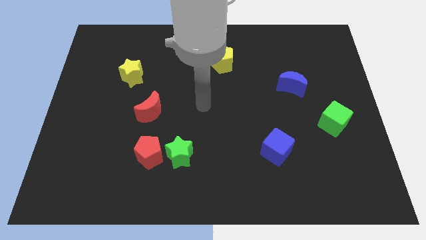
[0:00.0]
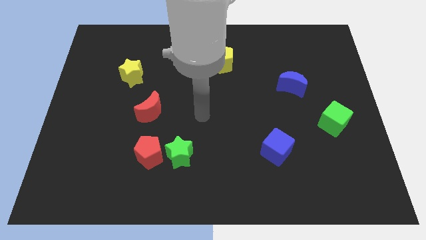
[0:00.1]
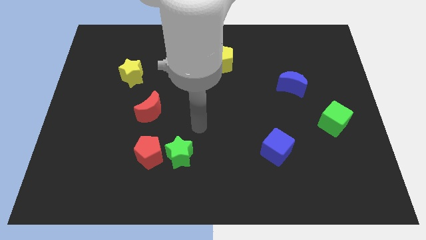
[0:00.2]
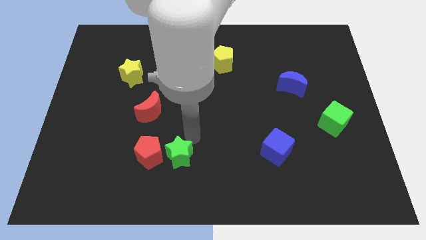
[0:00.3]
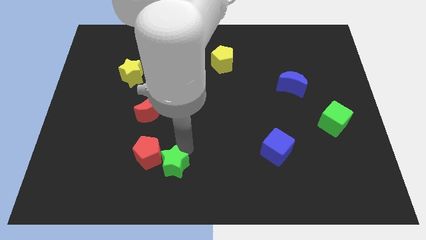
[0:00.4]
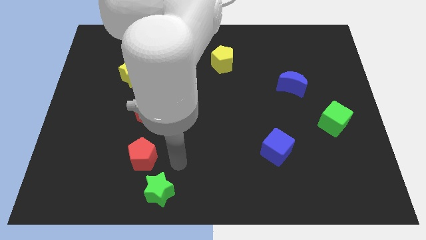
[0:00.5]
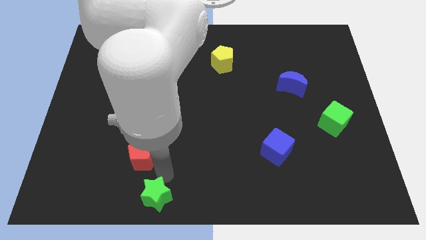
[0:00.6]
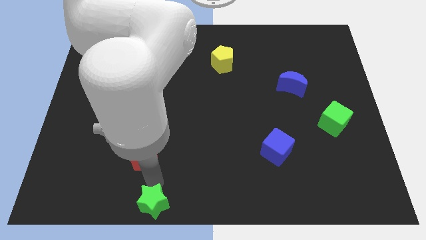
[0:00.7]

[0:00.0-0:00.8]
pull the red pentagon apart from the green star

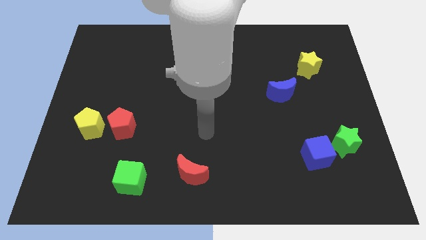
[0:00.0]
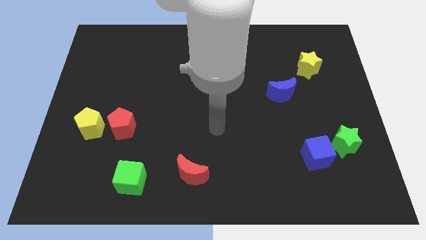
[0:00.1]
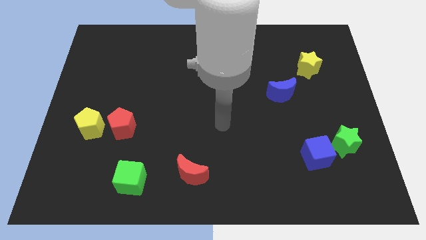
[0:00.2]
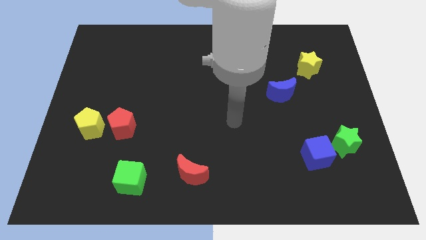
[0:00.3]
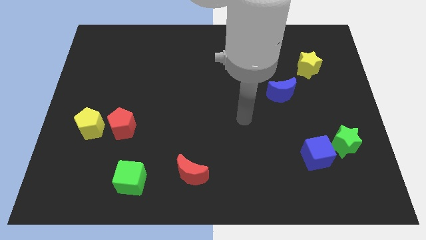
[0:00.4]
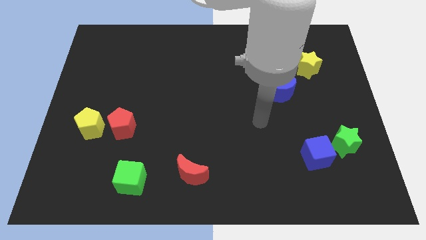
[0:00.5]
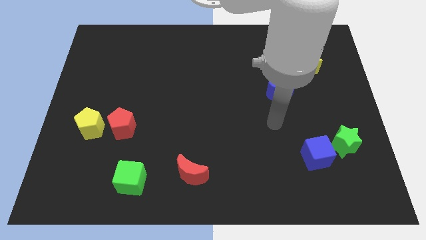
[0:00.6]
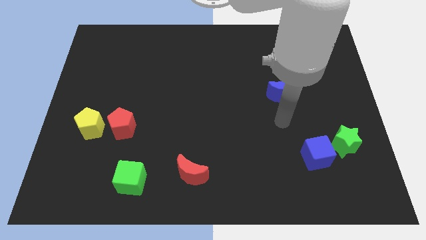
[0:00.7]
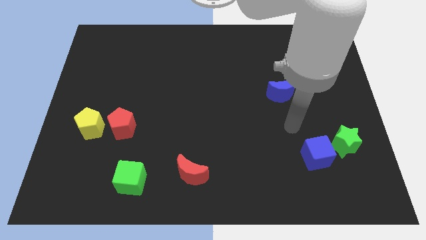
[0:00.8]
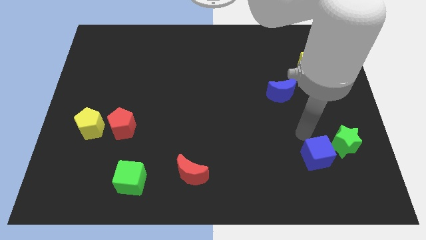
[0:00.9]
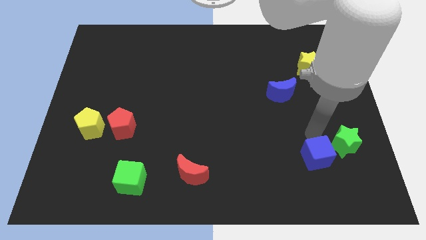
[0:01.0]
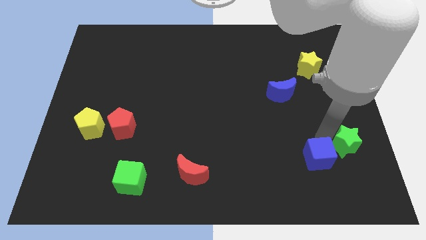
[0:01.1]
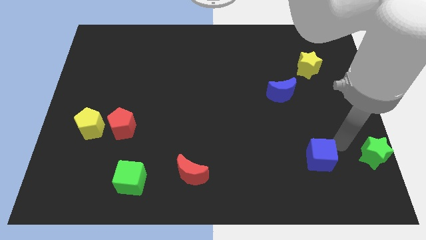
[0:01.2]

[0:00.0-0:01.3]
move the blue cube away from the green star

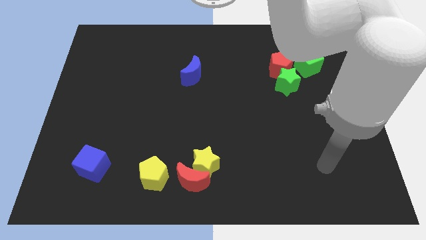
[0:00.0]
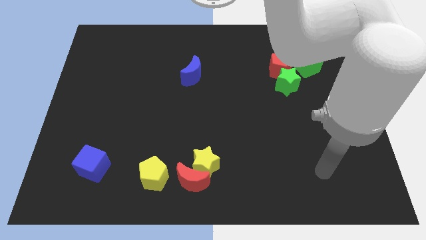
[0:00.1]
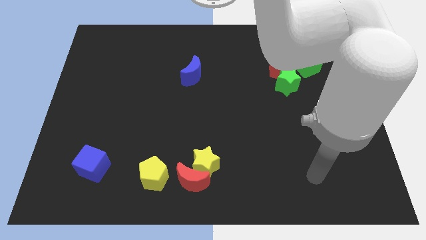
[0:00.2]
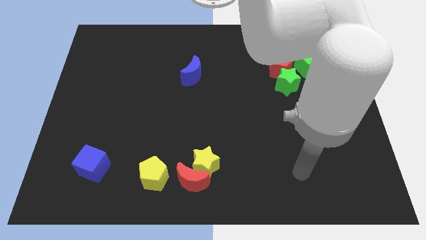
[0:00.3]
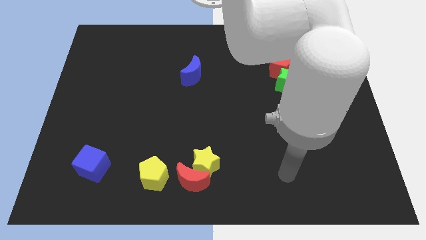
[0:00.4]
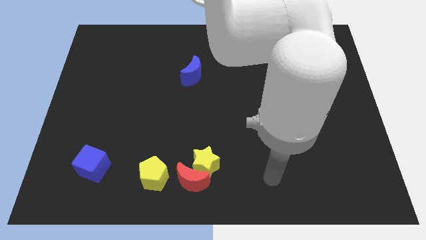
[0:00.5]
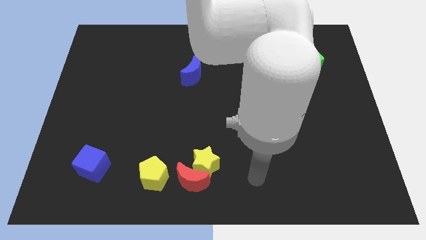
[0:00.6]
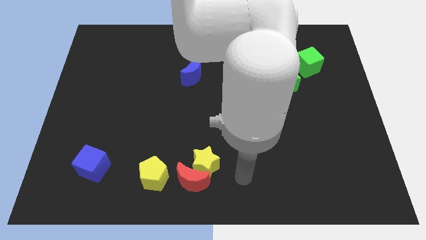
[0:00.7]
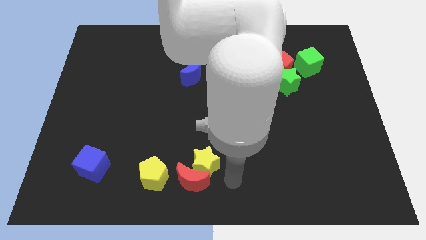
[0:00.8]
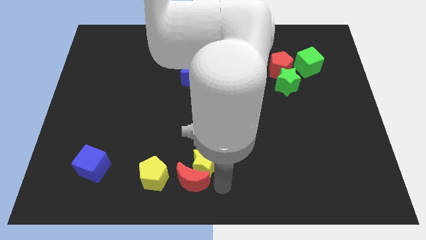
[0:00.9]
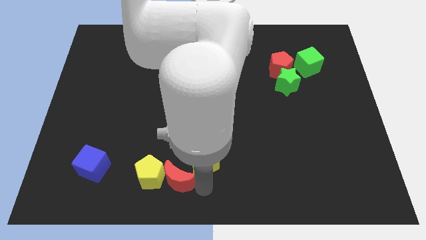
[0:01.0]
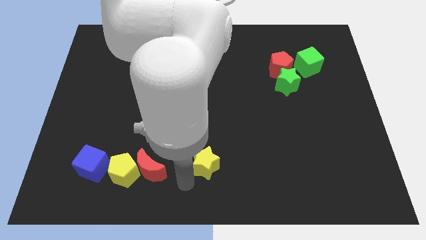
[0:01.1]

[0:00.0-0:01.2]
separate the yellow star from the red moon

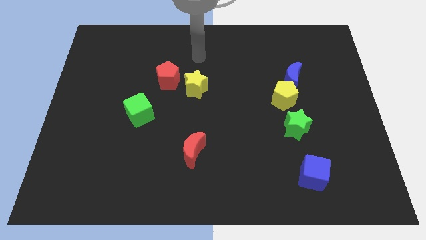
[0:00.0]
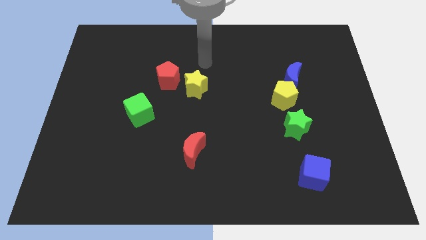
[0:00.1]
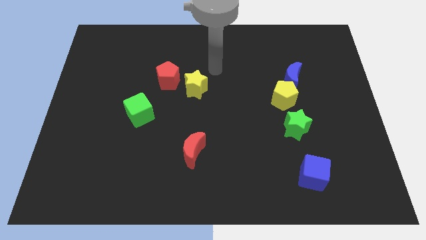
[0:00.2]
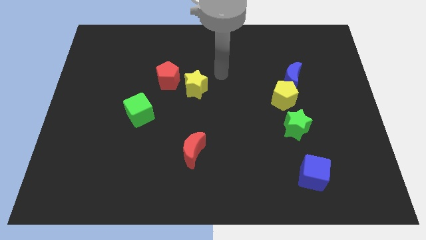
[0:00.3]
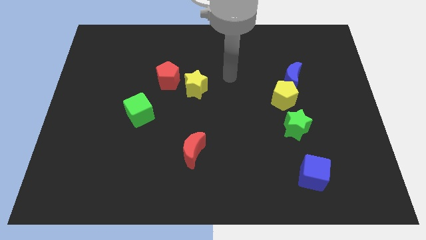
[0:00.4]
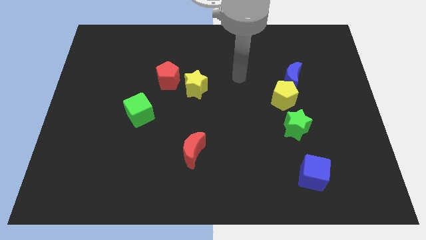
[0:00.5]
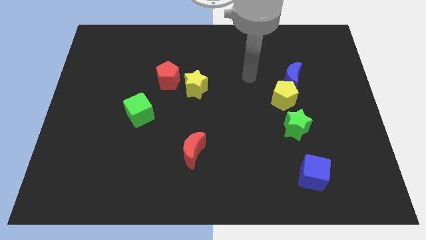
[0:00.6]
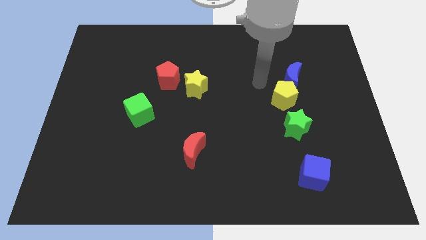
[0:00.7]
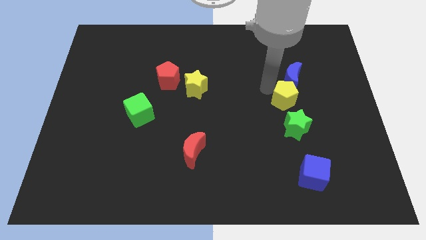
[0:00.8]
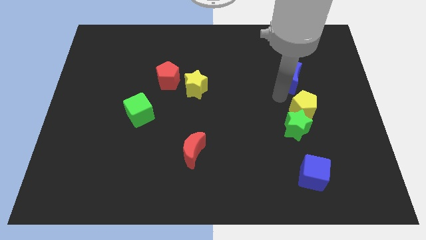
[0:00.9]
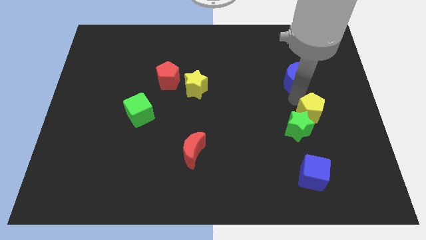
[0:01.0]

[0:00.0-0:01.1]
pull the blue moon apart from the yellow pentagon

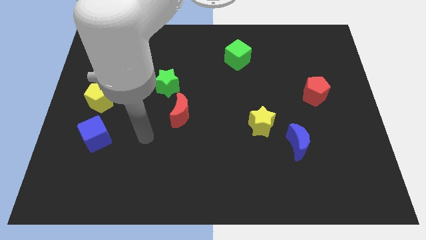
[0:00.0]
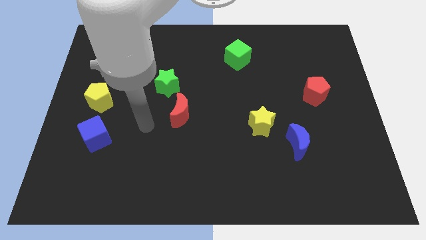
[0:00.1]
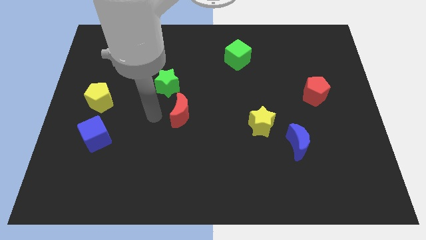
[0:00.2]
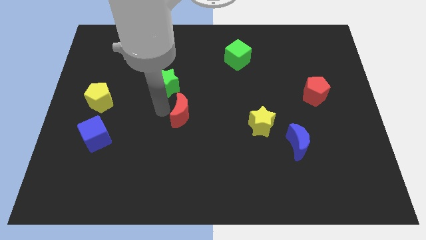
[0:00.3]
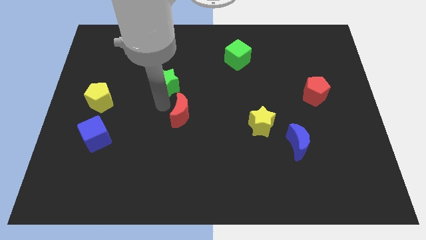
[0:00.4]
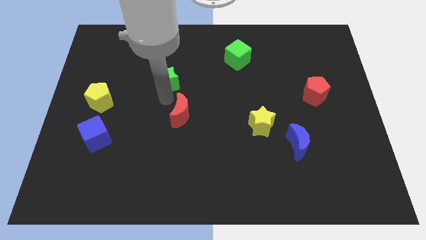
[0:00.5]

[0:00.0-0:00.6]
move the red moon away from the green star

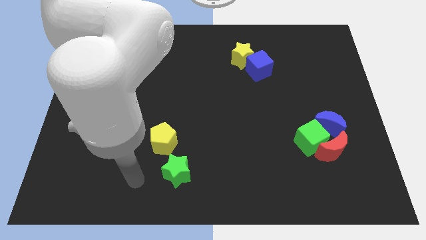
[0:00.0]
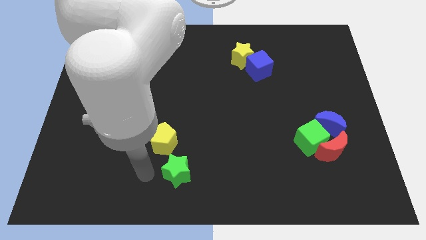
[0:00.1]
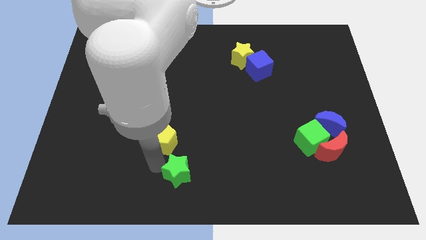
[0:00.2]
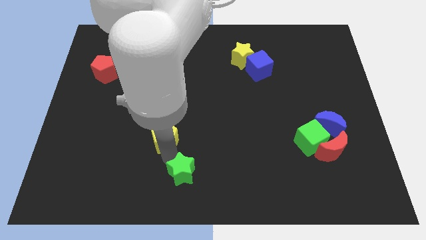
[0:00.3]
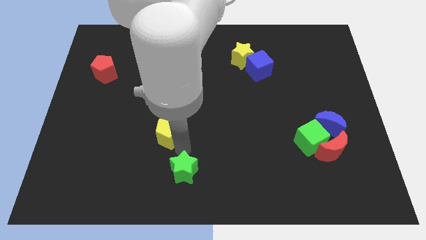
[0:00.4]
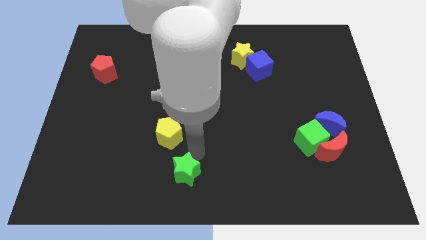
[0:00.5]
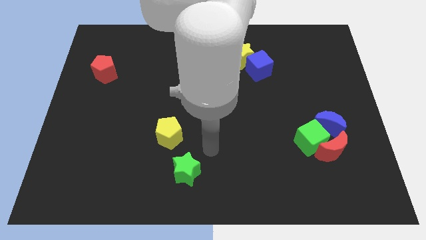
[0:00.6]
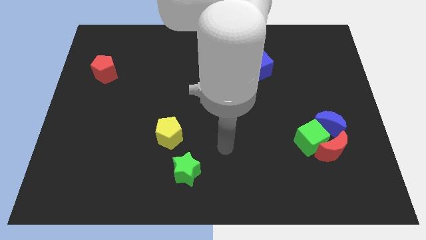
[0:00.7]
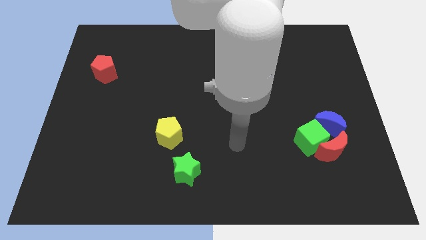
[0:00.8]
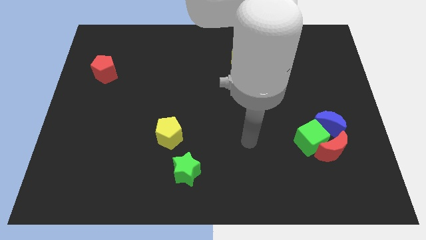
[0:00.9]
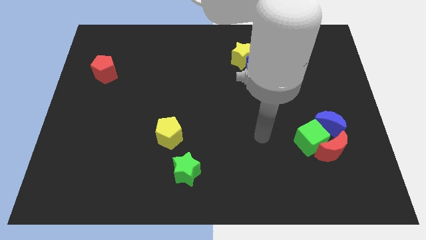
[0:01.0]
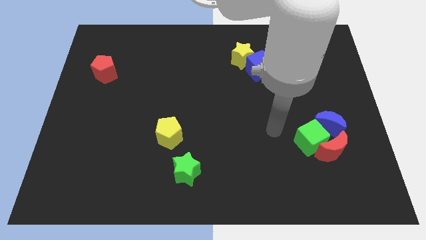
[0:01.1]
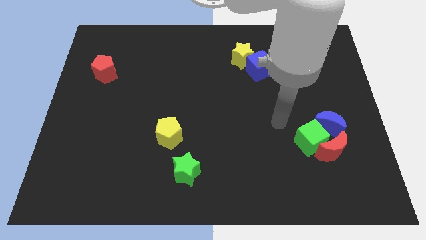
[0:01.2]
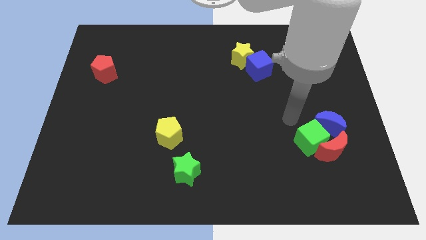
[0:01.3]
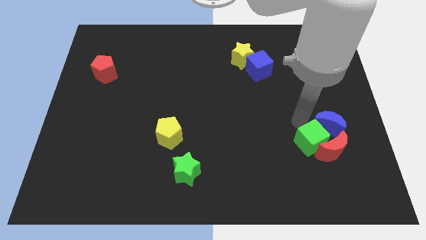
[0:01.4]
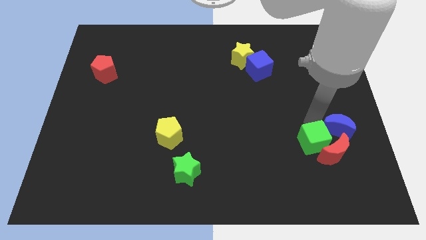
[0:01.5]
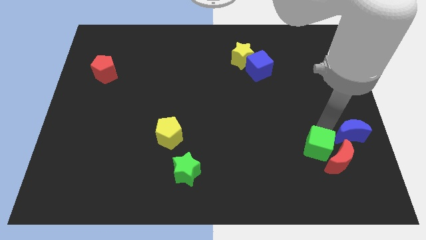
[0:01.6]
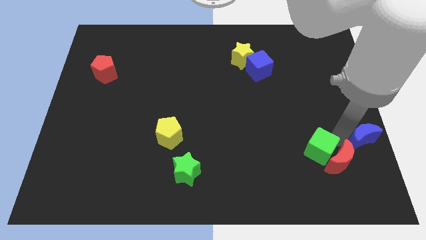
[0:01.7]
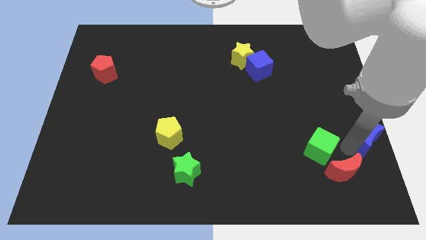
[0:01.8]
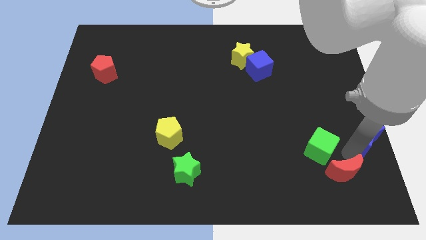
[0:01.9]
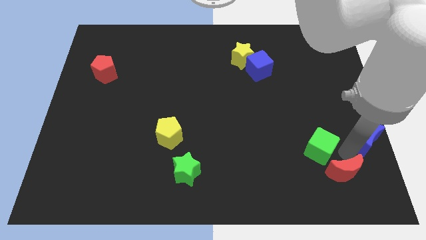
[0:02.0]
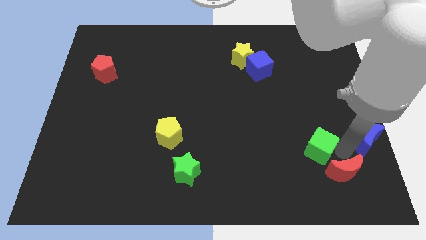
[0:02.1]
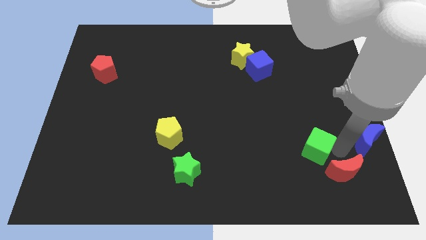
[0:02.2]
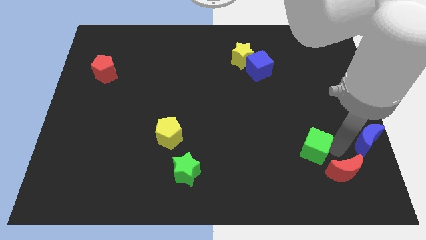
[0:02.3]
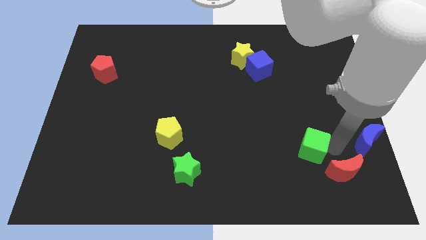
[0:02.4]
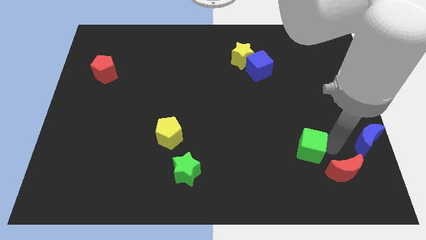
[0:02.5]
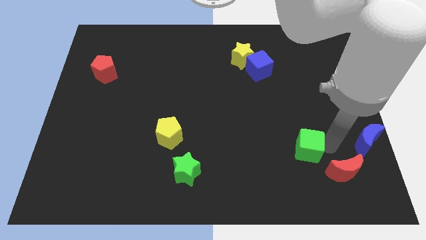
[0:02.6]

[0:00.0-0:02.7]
pull the green cube apart from the red moon and blue moon

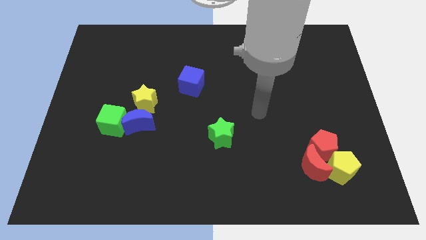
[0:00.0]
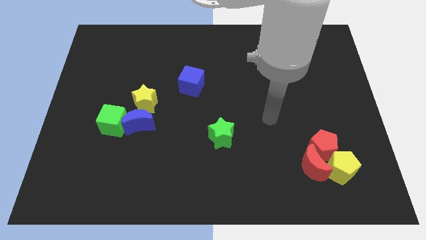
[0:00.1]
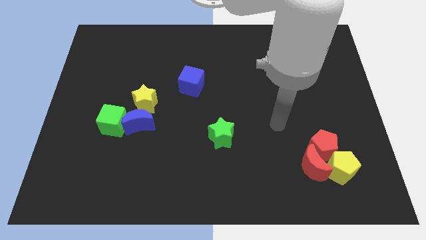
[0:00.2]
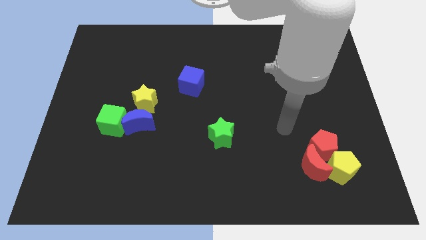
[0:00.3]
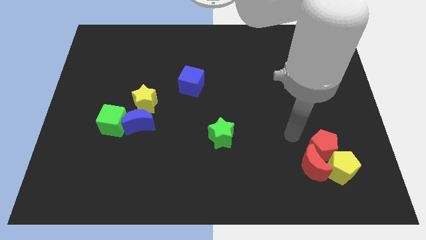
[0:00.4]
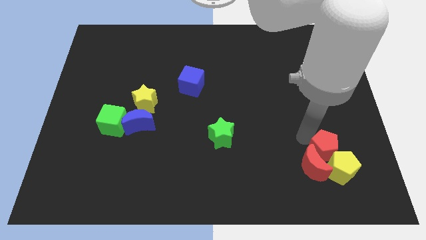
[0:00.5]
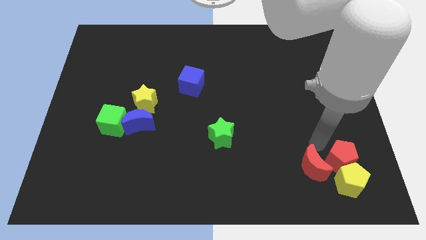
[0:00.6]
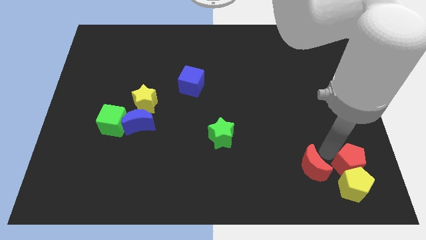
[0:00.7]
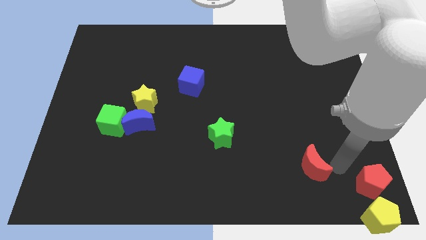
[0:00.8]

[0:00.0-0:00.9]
move the red moon away from the red pentagon and yellow pentagon

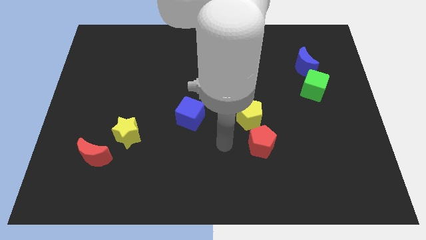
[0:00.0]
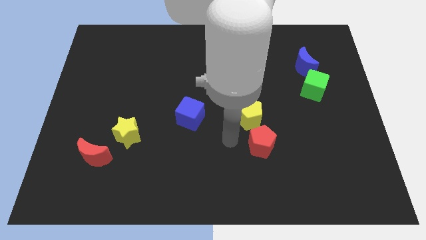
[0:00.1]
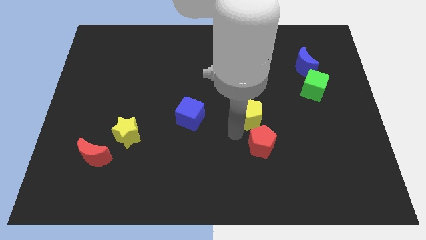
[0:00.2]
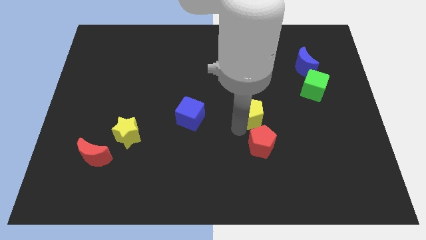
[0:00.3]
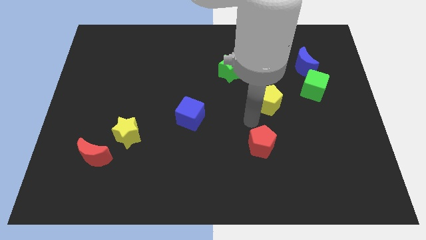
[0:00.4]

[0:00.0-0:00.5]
pull the red pentagon apart from the yellow pentagon

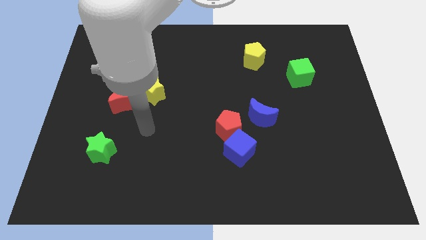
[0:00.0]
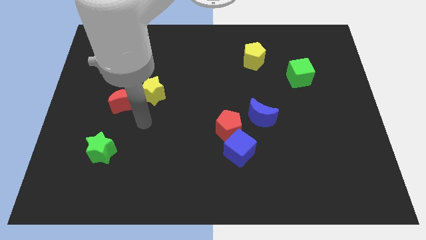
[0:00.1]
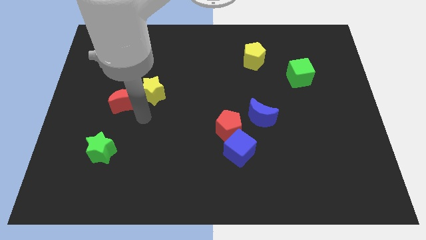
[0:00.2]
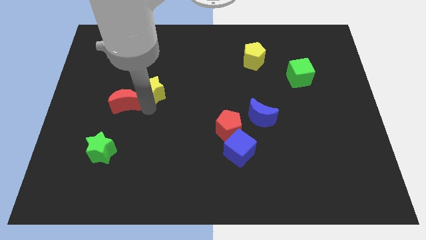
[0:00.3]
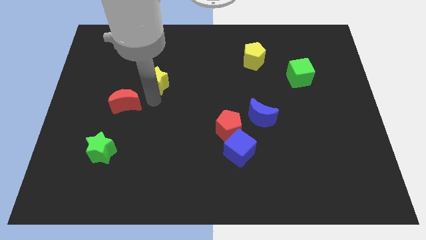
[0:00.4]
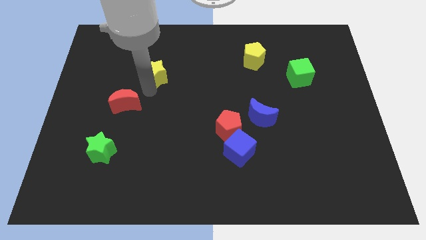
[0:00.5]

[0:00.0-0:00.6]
separate the red moon from the yellow star
